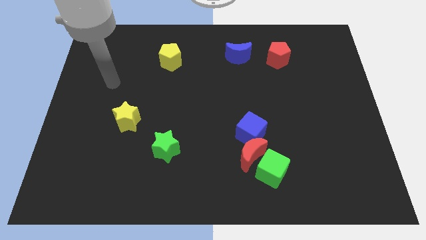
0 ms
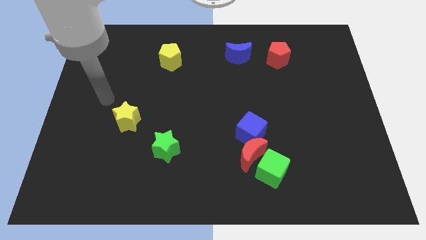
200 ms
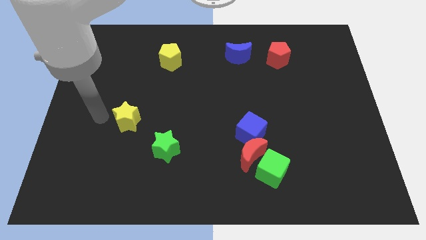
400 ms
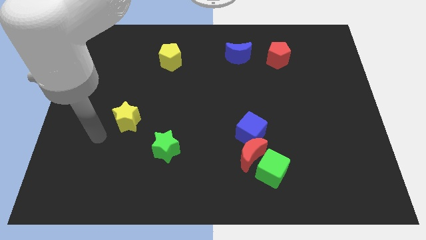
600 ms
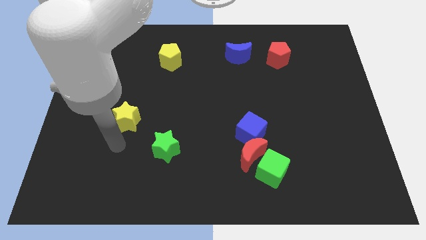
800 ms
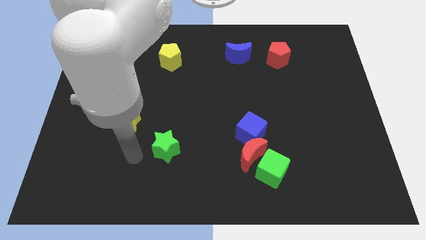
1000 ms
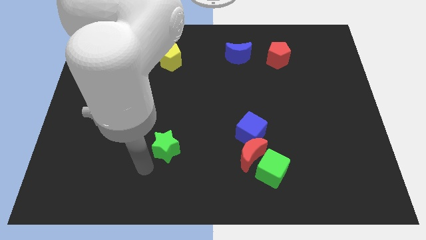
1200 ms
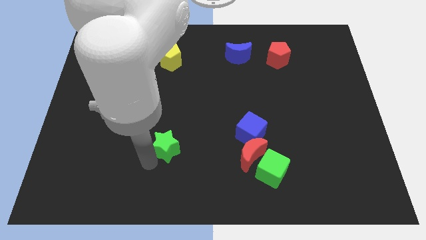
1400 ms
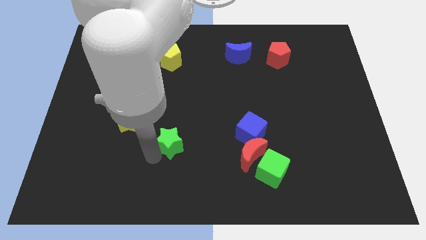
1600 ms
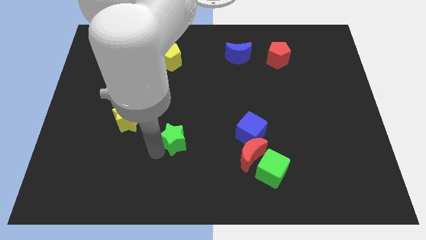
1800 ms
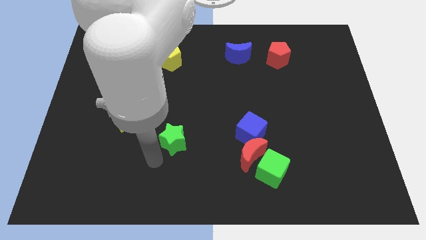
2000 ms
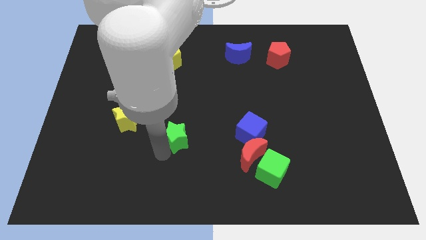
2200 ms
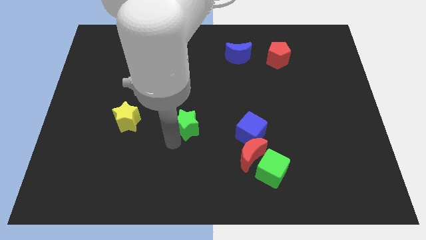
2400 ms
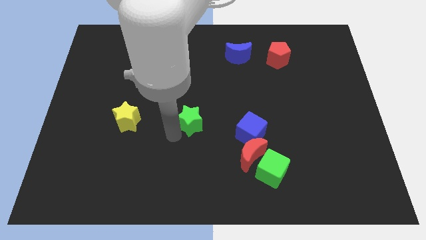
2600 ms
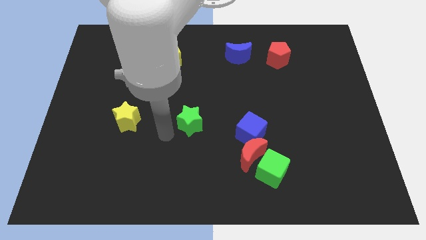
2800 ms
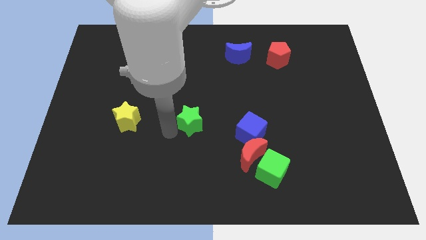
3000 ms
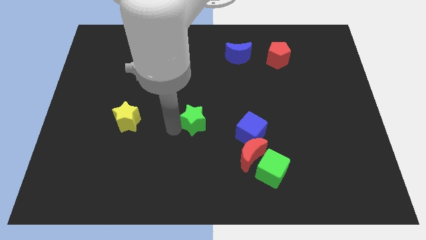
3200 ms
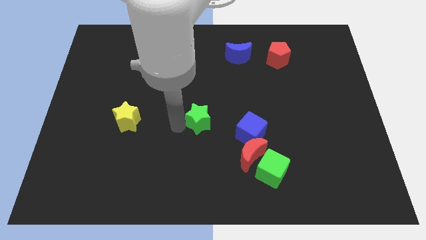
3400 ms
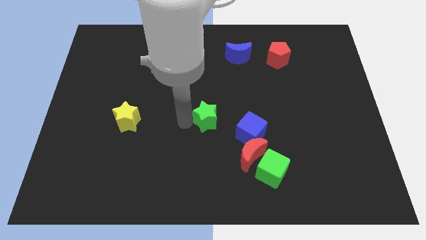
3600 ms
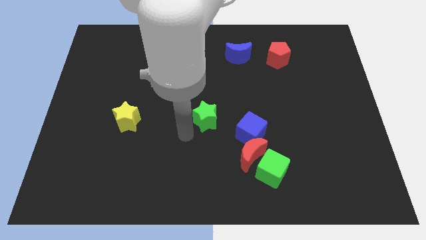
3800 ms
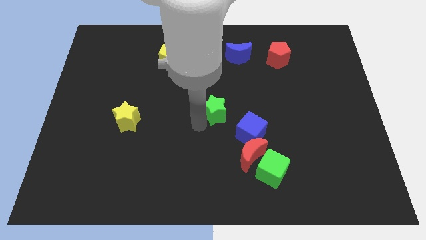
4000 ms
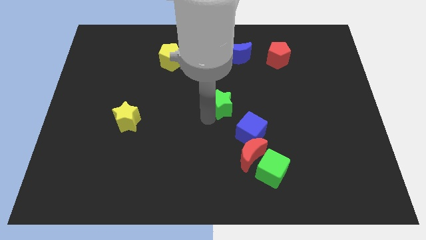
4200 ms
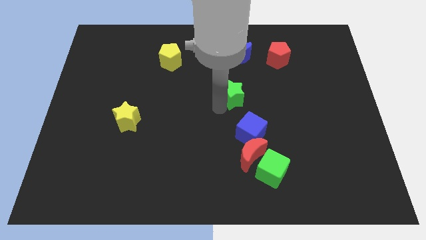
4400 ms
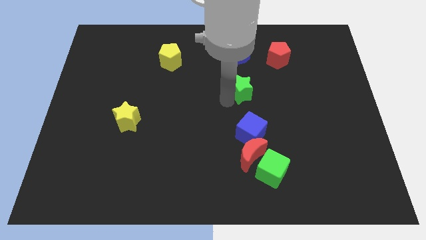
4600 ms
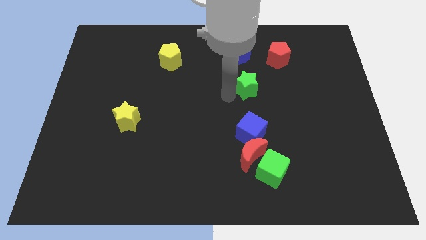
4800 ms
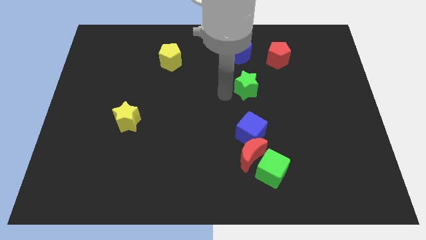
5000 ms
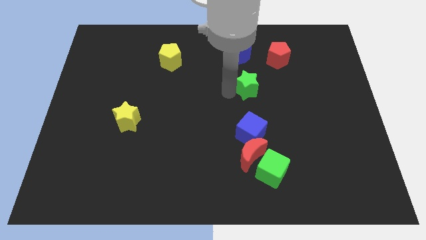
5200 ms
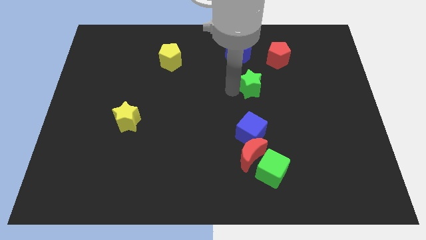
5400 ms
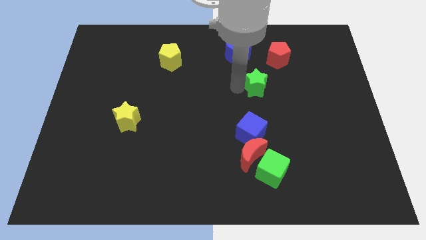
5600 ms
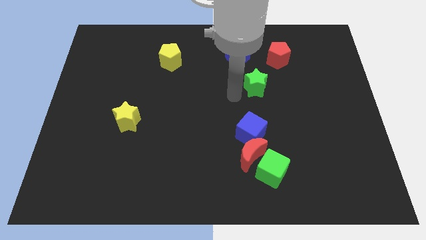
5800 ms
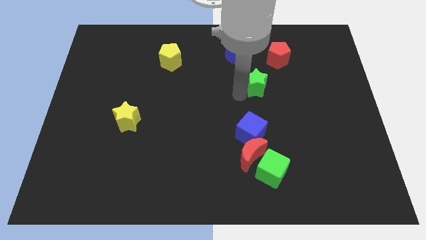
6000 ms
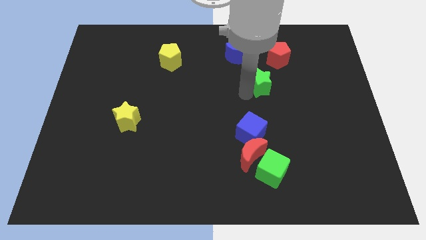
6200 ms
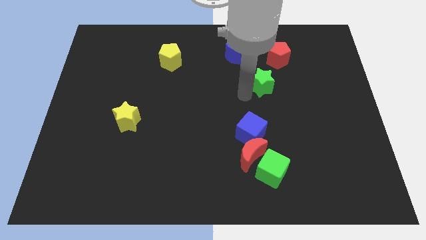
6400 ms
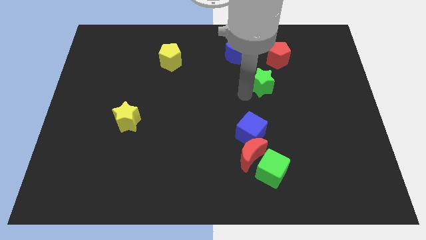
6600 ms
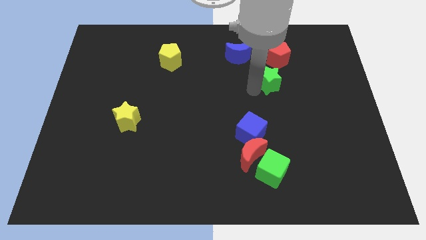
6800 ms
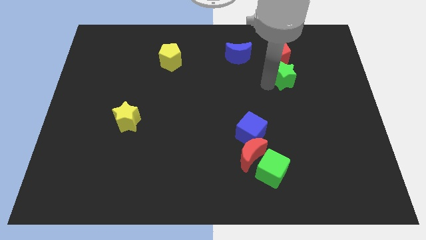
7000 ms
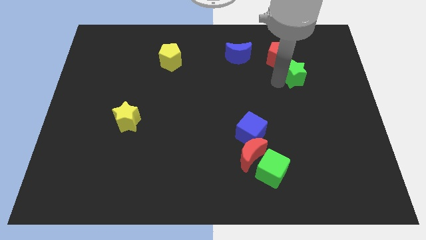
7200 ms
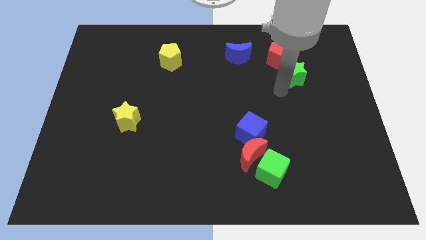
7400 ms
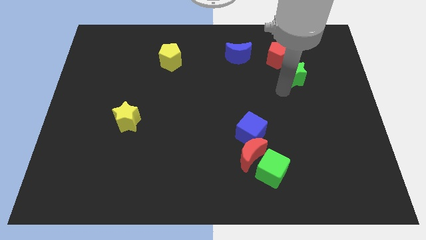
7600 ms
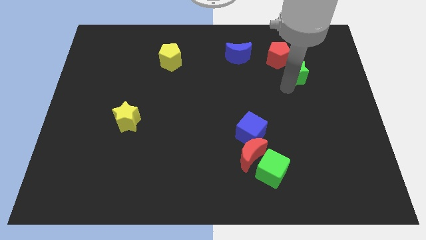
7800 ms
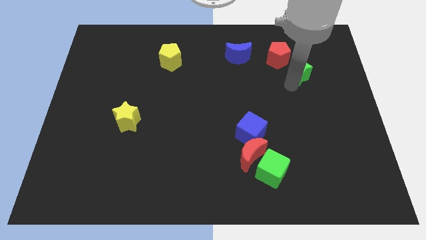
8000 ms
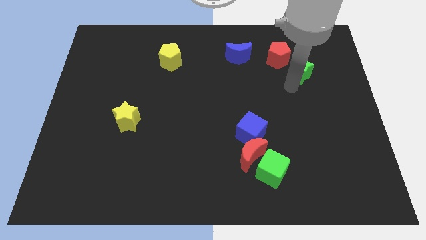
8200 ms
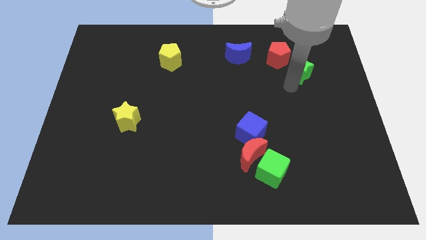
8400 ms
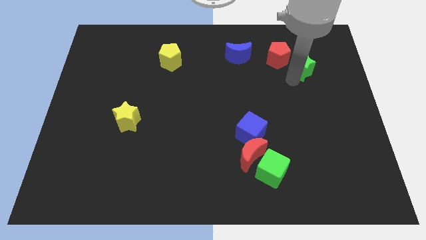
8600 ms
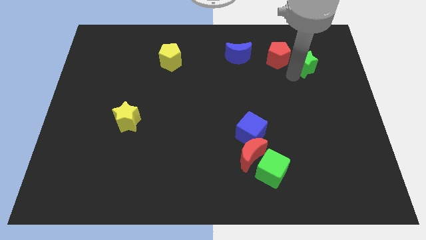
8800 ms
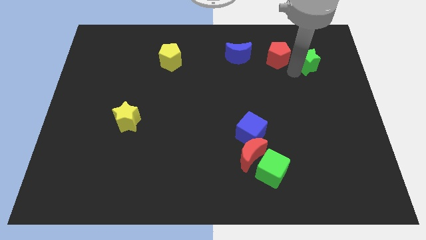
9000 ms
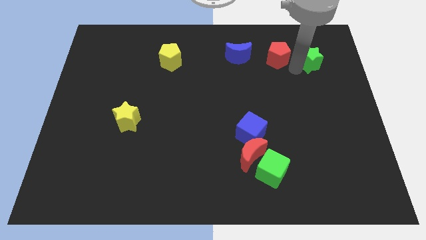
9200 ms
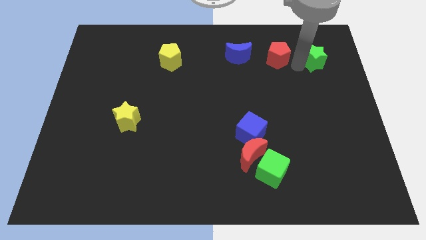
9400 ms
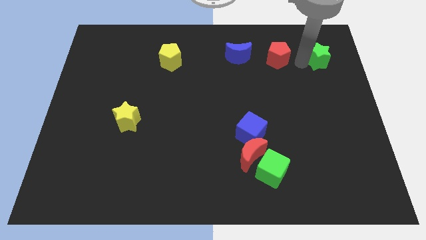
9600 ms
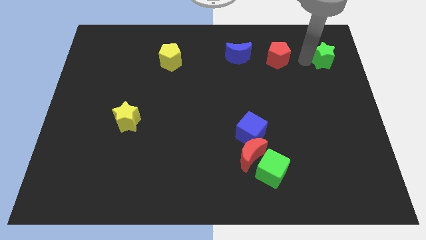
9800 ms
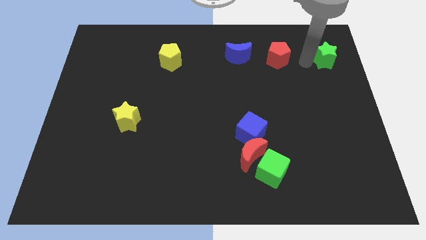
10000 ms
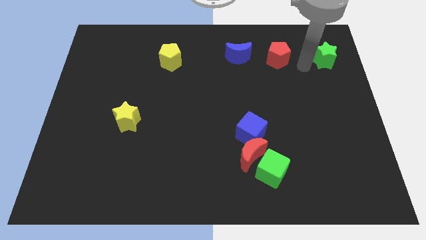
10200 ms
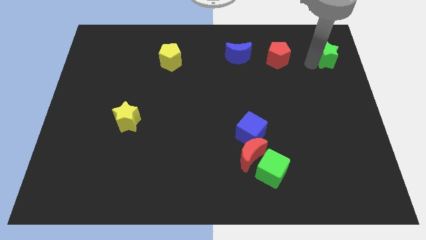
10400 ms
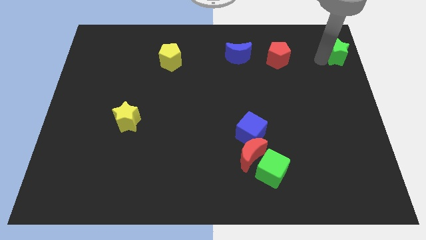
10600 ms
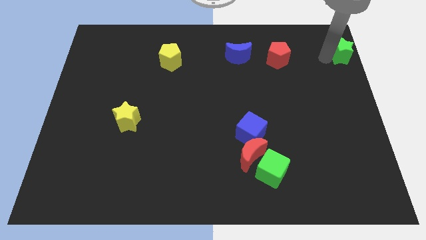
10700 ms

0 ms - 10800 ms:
put the green star to the upper right corner
